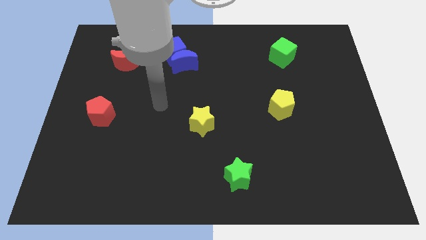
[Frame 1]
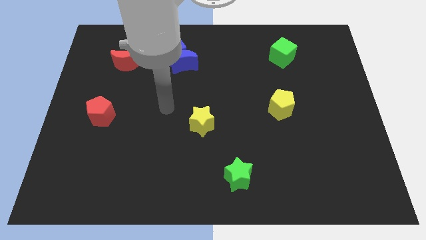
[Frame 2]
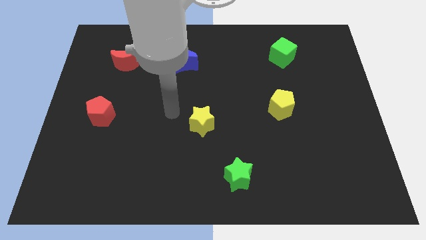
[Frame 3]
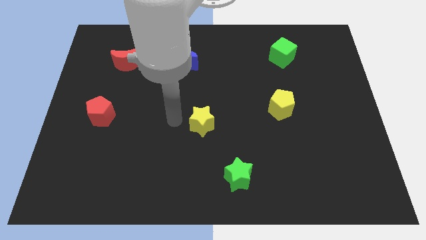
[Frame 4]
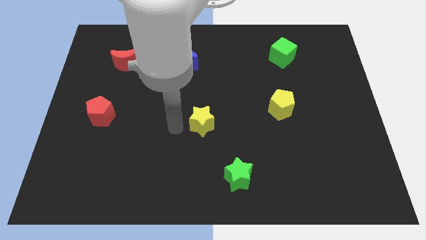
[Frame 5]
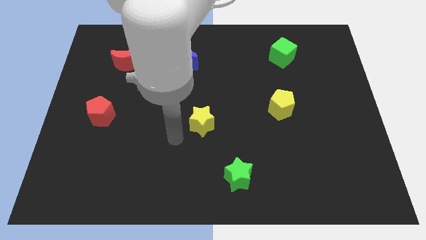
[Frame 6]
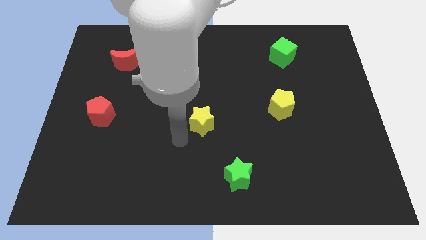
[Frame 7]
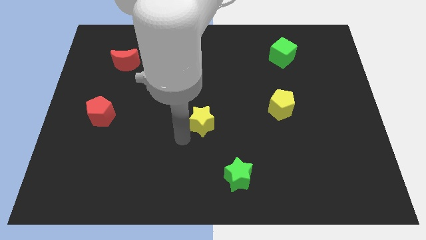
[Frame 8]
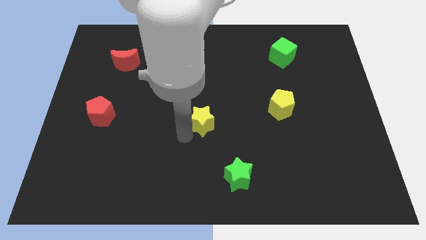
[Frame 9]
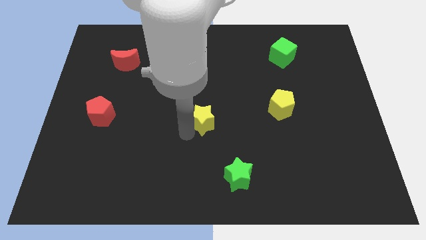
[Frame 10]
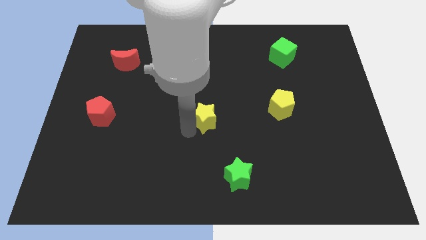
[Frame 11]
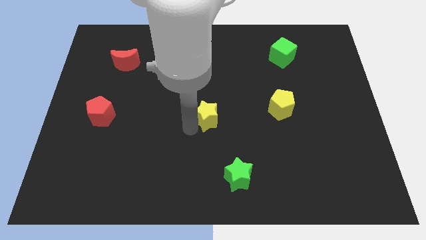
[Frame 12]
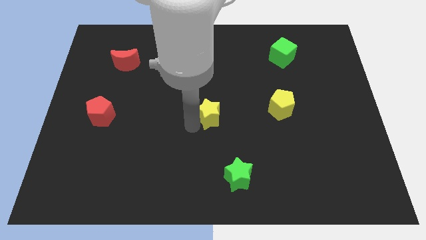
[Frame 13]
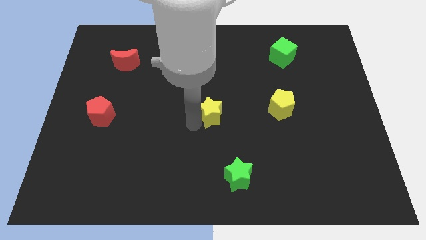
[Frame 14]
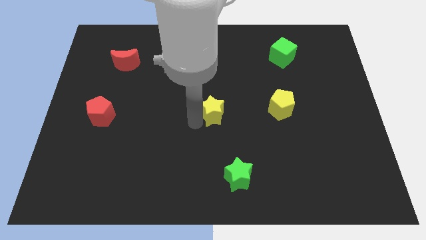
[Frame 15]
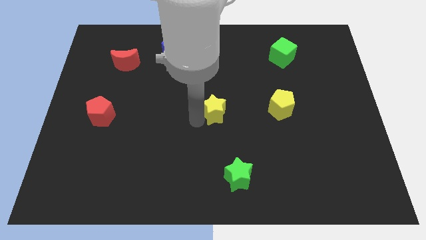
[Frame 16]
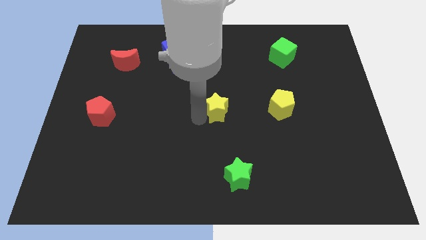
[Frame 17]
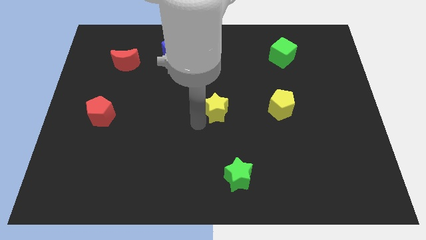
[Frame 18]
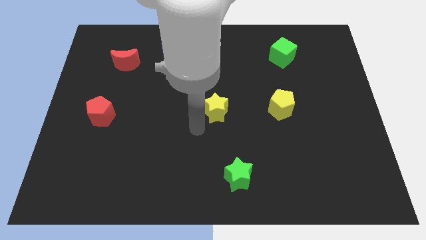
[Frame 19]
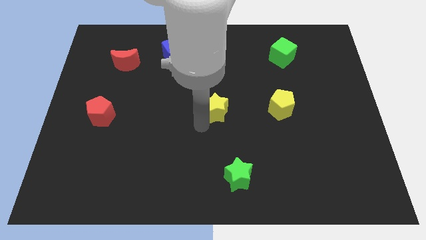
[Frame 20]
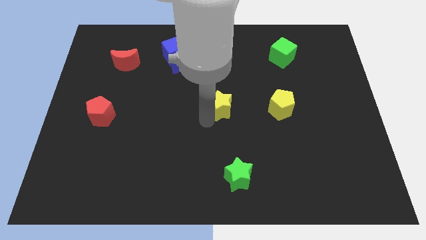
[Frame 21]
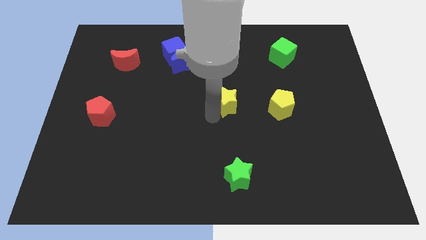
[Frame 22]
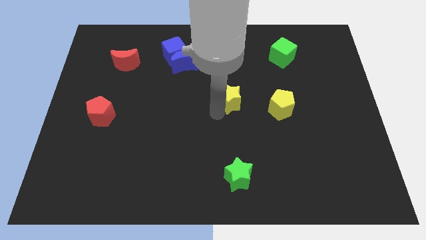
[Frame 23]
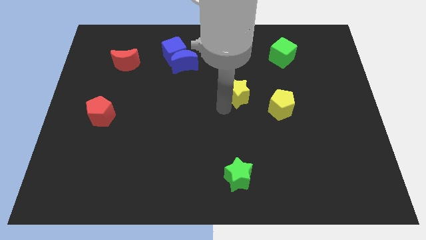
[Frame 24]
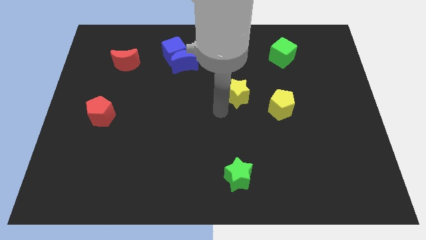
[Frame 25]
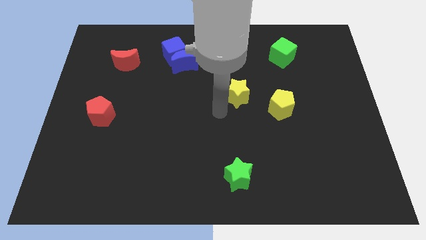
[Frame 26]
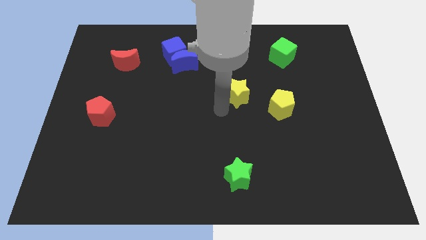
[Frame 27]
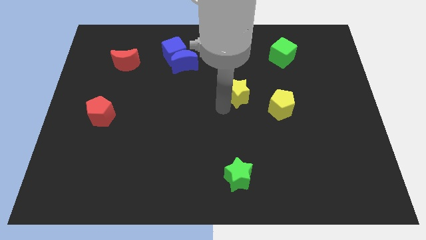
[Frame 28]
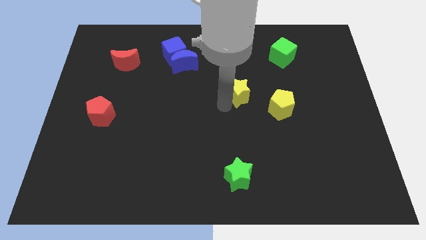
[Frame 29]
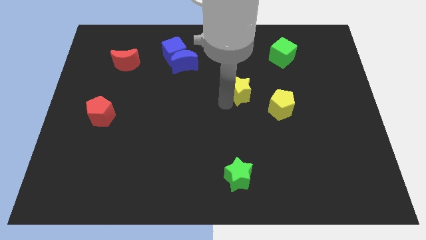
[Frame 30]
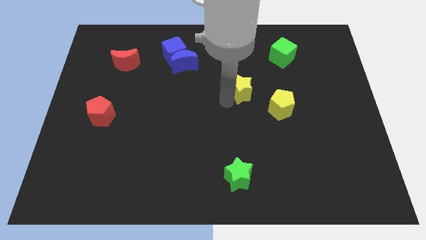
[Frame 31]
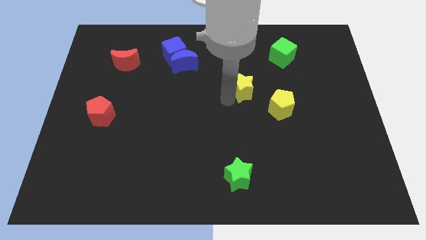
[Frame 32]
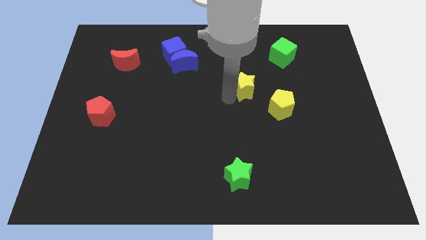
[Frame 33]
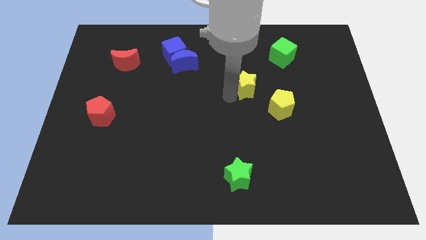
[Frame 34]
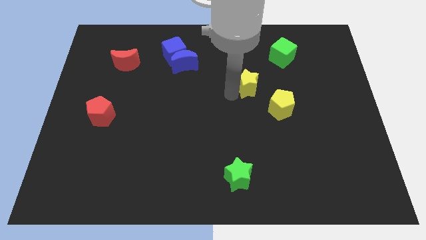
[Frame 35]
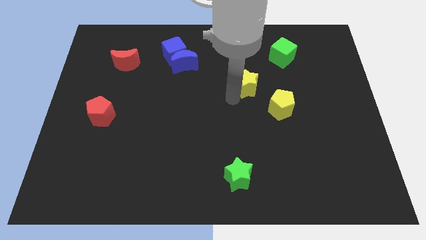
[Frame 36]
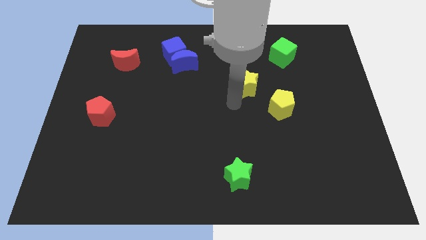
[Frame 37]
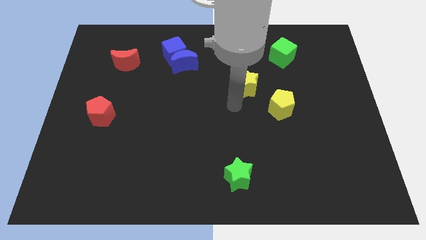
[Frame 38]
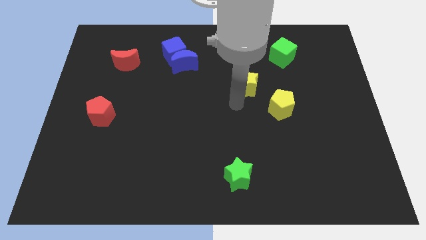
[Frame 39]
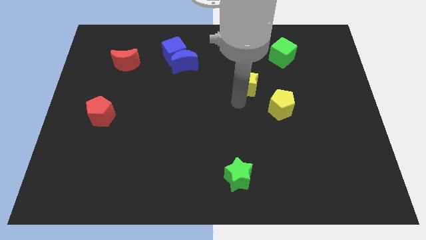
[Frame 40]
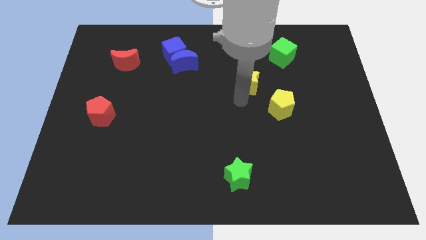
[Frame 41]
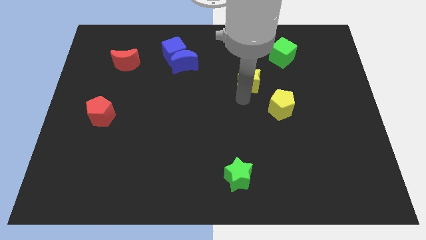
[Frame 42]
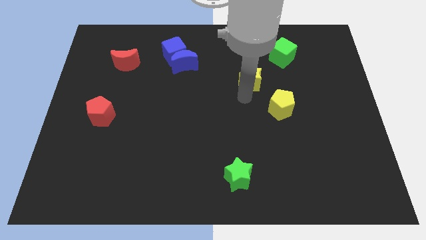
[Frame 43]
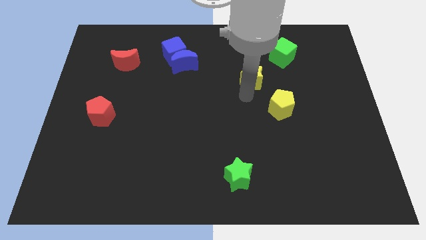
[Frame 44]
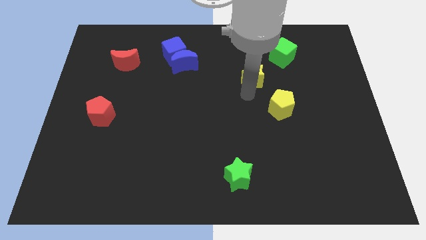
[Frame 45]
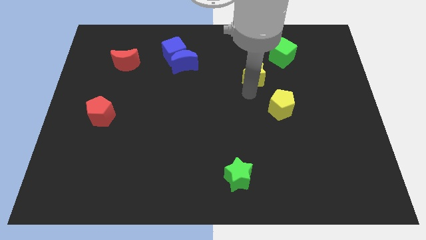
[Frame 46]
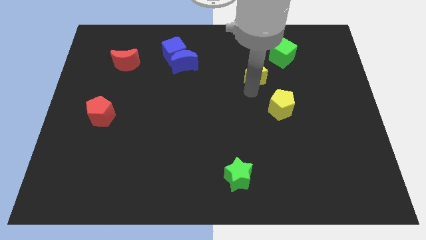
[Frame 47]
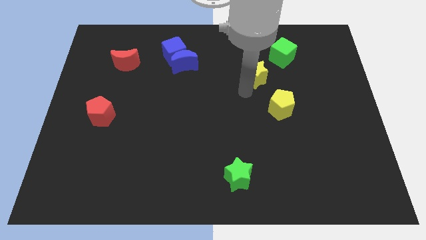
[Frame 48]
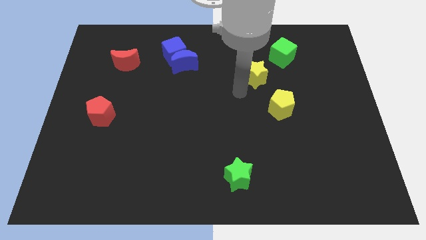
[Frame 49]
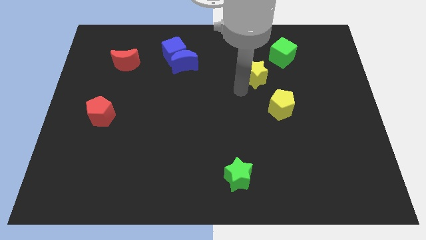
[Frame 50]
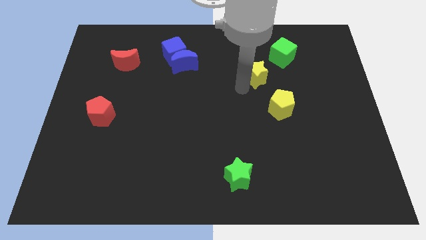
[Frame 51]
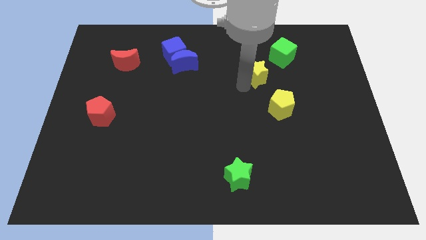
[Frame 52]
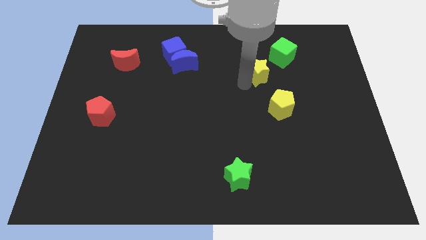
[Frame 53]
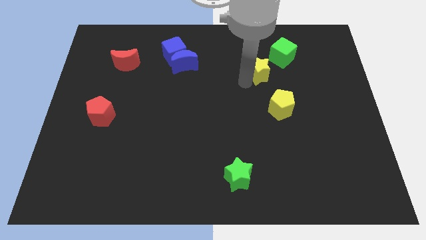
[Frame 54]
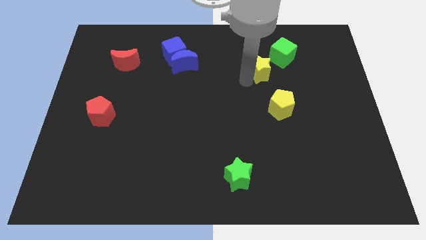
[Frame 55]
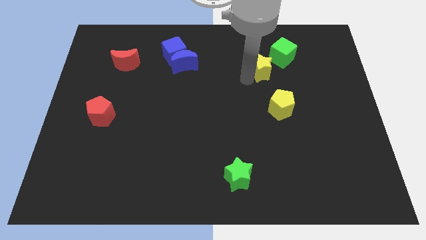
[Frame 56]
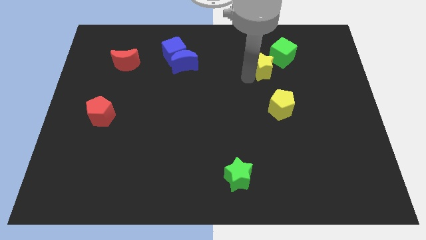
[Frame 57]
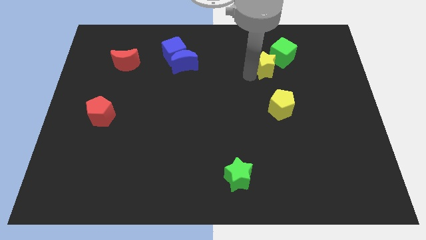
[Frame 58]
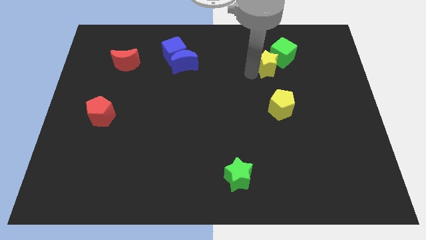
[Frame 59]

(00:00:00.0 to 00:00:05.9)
move the yellow star next to the green cube
